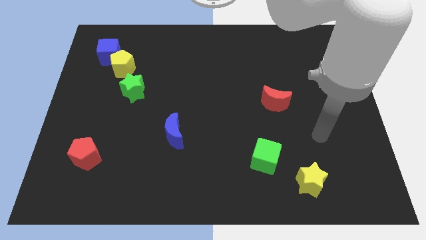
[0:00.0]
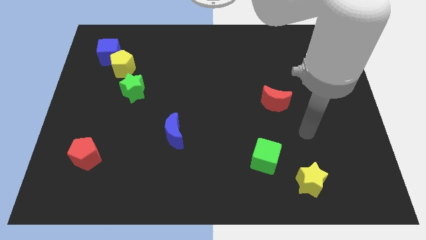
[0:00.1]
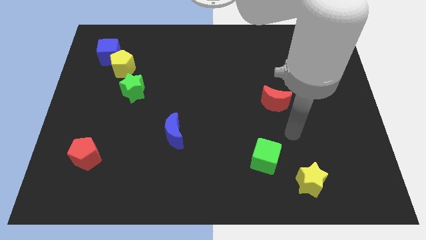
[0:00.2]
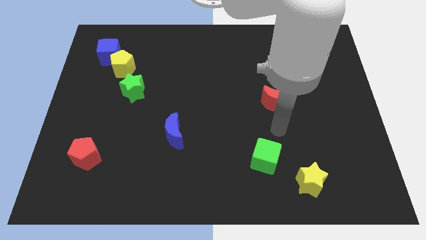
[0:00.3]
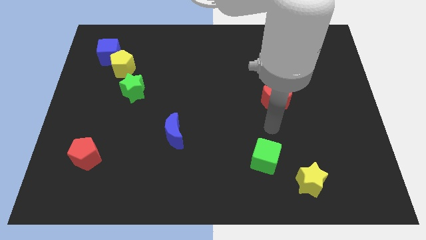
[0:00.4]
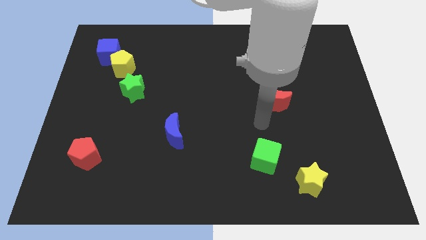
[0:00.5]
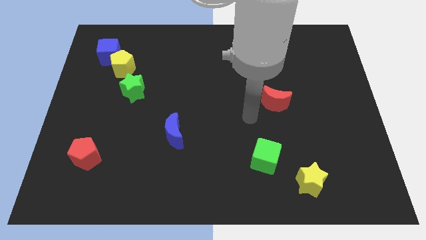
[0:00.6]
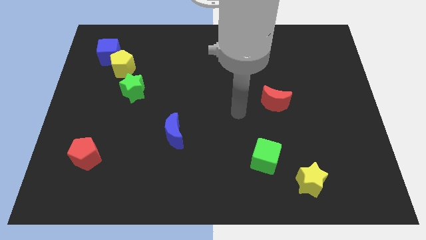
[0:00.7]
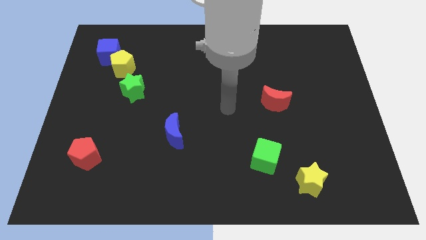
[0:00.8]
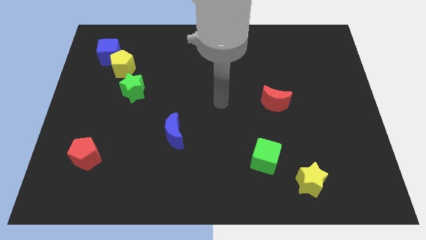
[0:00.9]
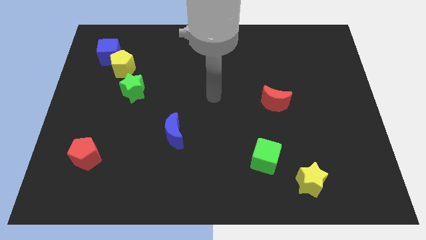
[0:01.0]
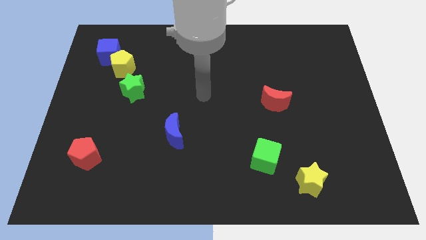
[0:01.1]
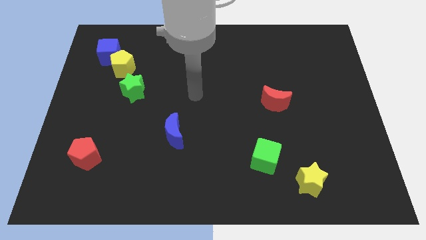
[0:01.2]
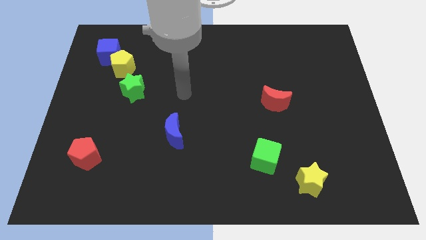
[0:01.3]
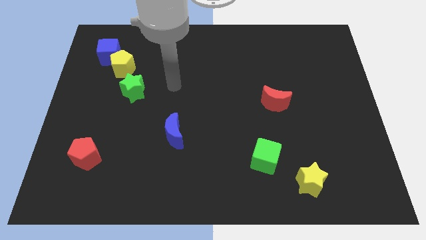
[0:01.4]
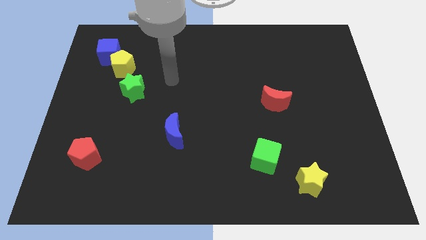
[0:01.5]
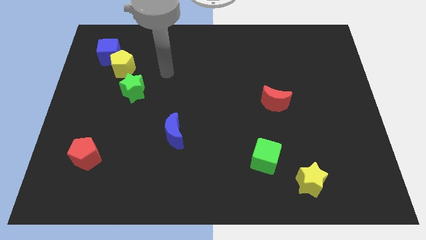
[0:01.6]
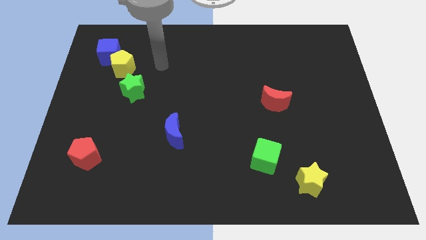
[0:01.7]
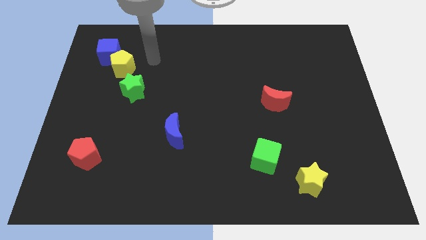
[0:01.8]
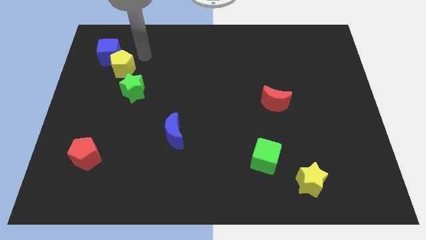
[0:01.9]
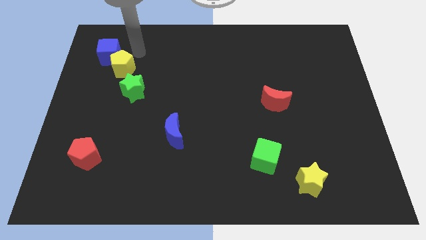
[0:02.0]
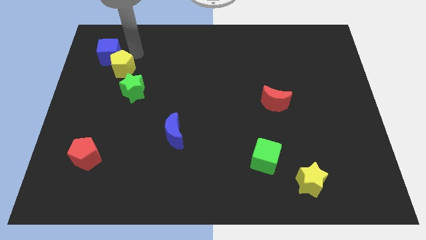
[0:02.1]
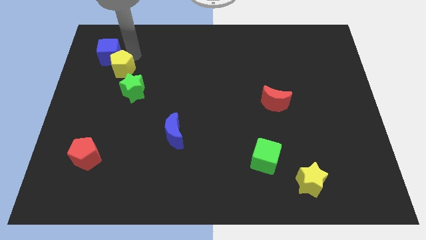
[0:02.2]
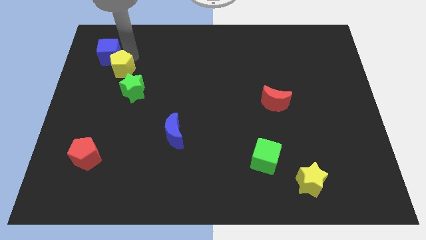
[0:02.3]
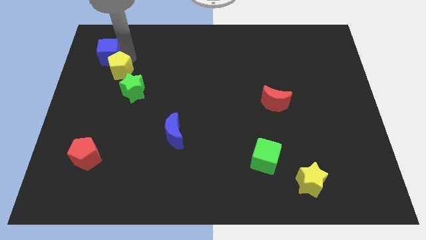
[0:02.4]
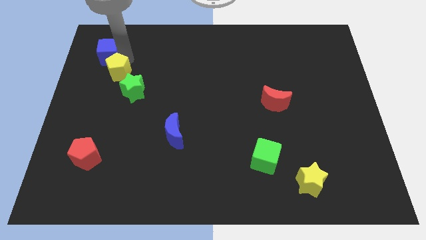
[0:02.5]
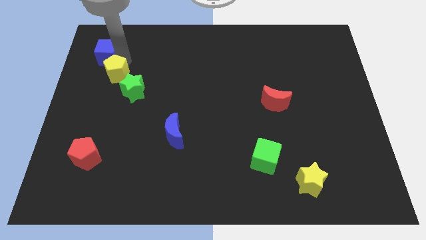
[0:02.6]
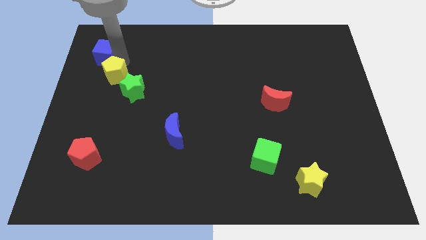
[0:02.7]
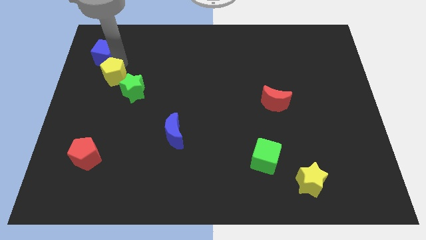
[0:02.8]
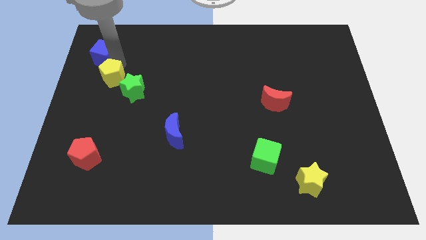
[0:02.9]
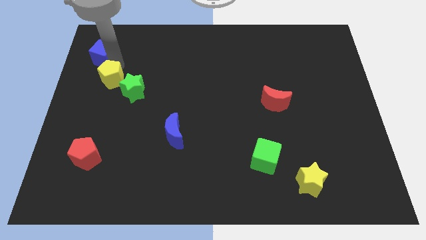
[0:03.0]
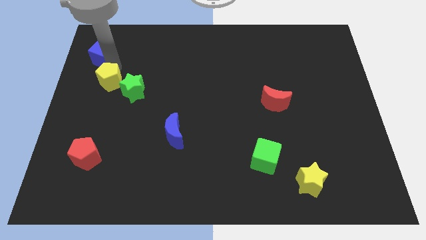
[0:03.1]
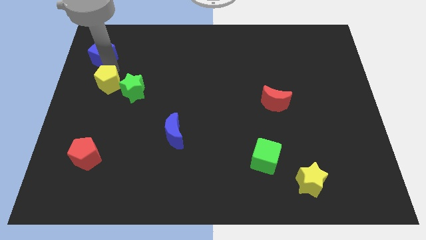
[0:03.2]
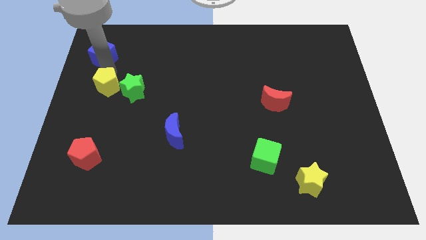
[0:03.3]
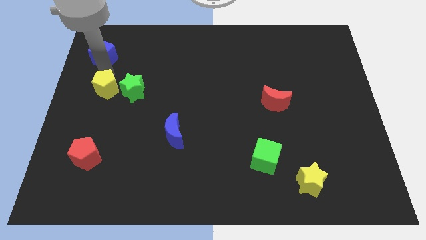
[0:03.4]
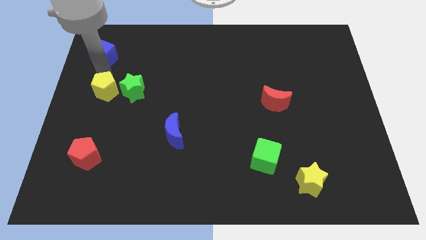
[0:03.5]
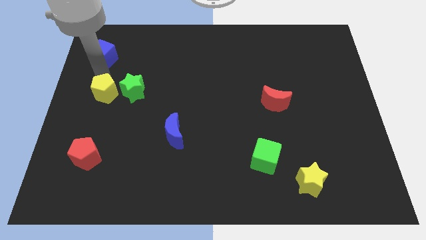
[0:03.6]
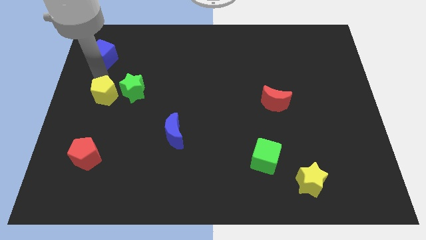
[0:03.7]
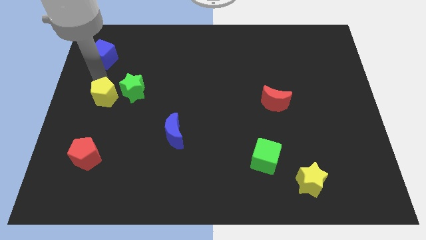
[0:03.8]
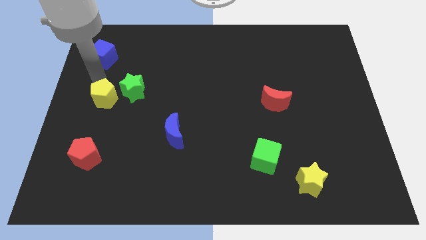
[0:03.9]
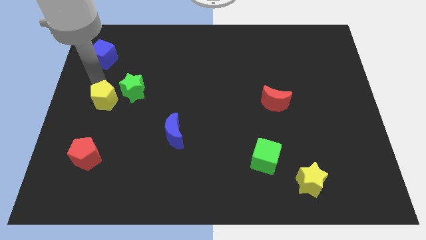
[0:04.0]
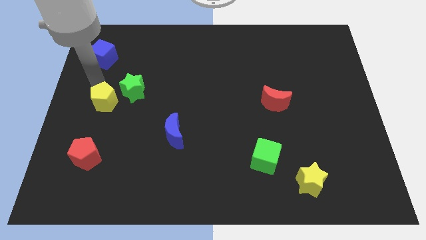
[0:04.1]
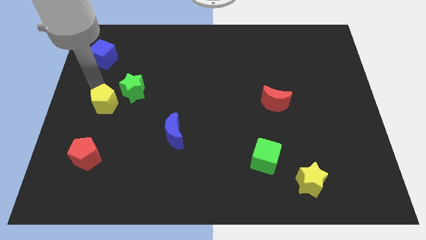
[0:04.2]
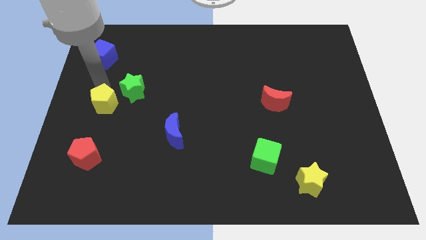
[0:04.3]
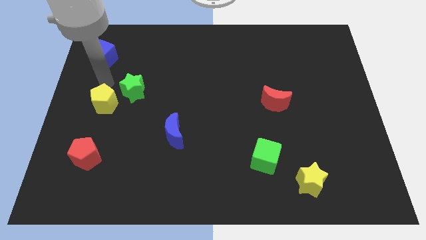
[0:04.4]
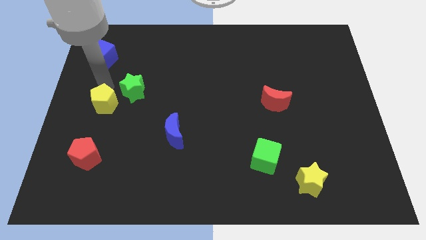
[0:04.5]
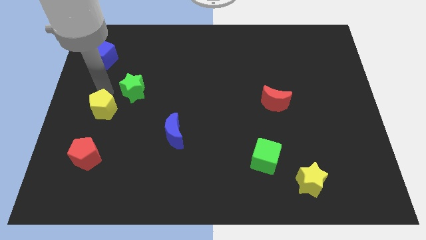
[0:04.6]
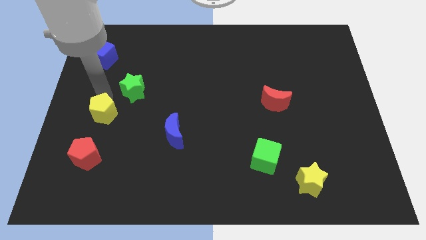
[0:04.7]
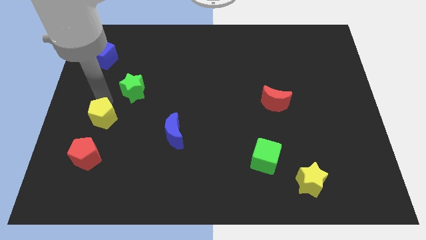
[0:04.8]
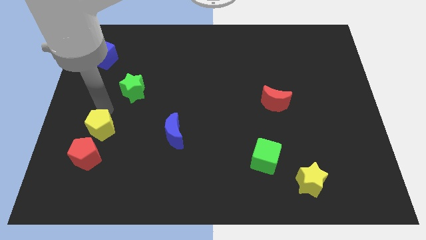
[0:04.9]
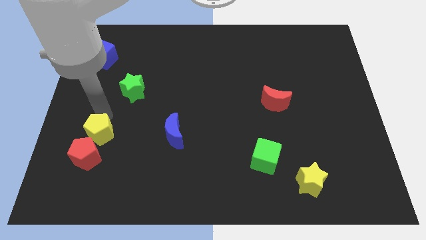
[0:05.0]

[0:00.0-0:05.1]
push the yellow pentagon close to the red pentagon

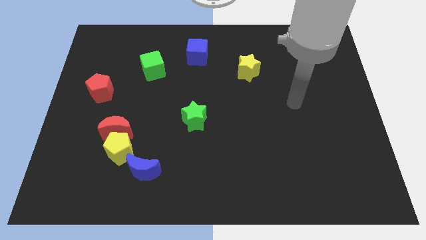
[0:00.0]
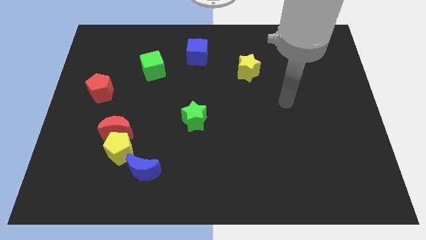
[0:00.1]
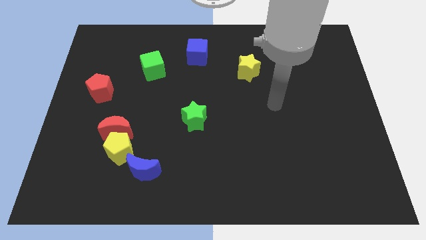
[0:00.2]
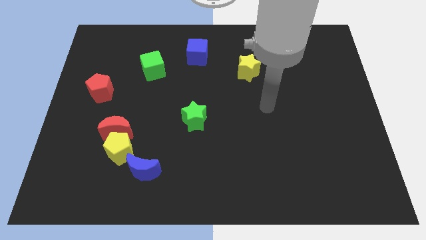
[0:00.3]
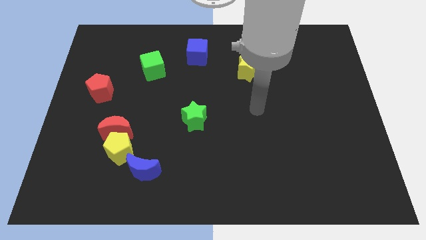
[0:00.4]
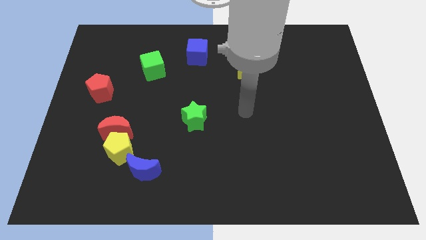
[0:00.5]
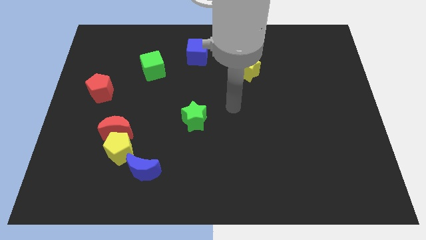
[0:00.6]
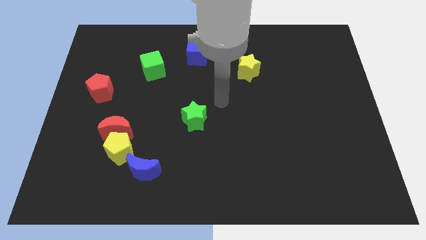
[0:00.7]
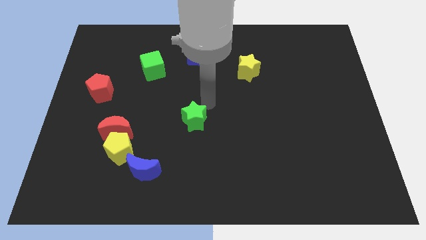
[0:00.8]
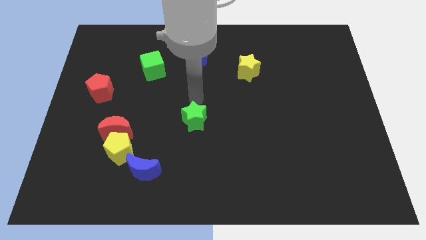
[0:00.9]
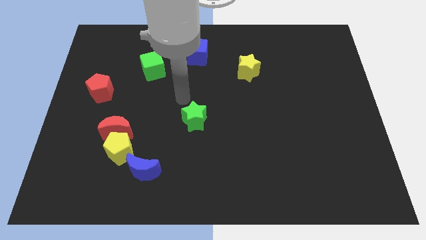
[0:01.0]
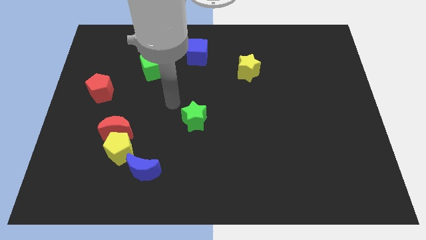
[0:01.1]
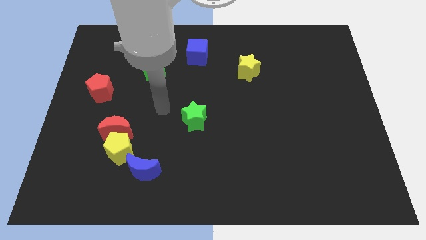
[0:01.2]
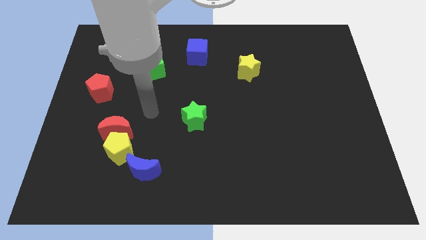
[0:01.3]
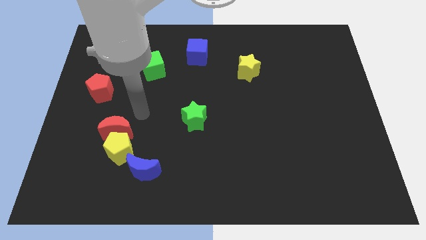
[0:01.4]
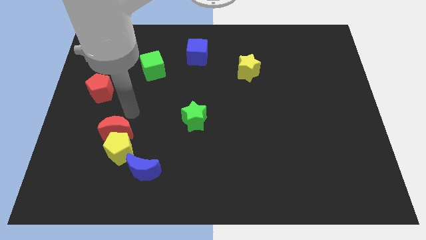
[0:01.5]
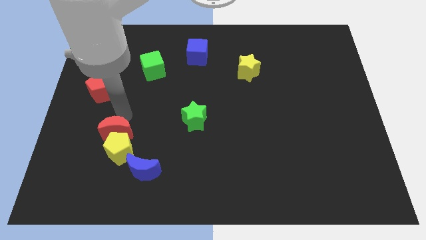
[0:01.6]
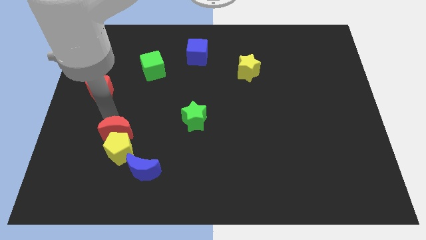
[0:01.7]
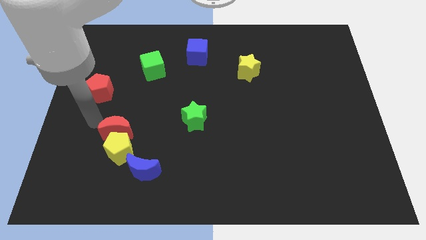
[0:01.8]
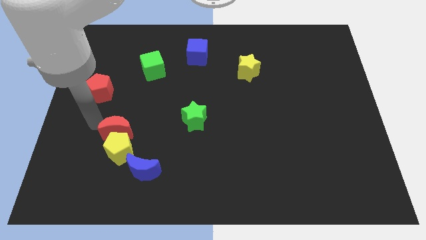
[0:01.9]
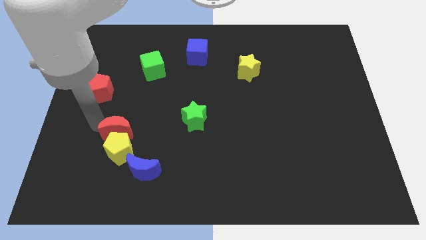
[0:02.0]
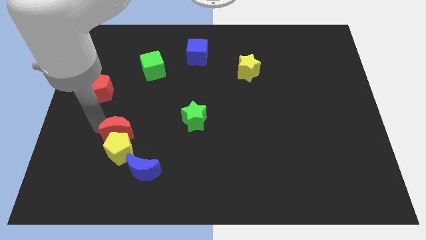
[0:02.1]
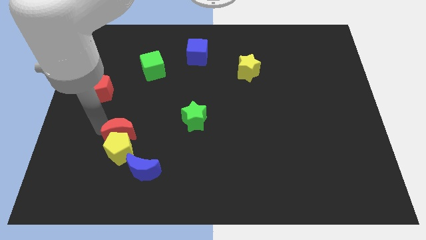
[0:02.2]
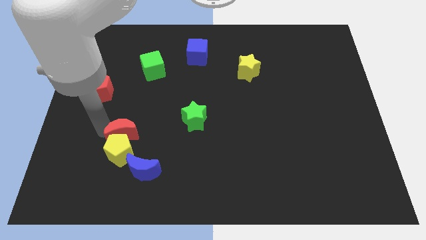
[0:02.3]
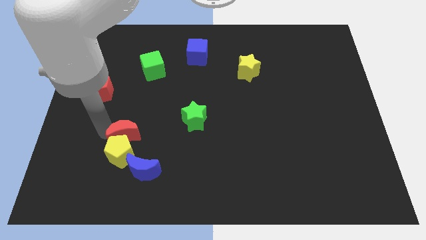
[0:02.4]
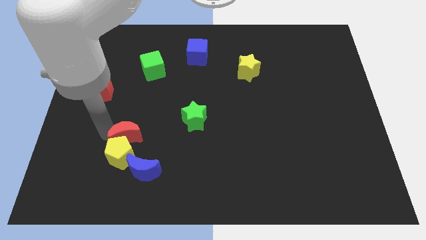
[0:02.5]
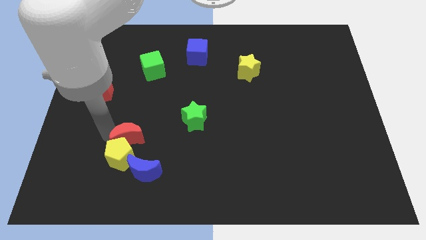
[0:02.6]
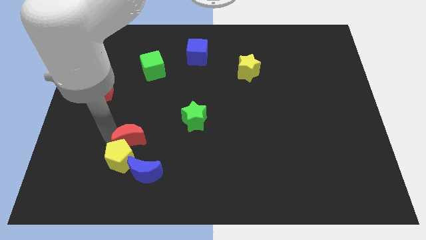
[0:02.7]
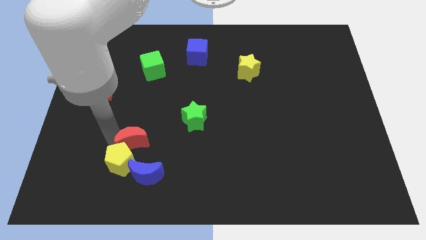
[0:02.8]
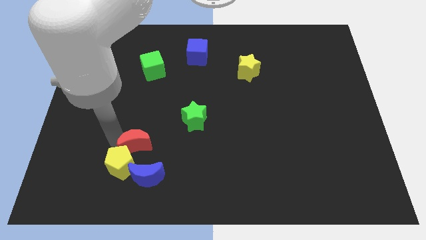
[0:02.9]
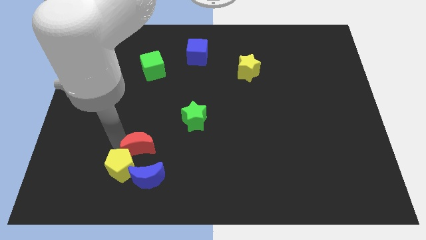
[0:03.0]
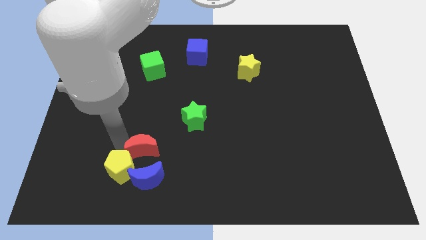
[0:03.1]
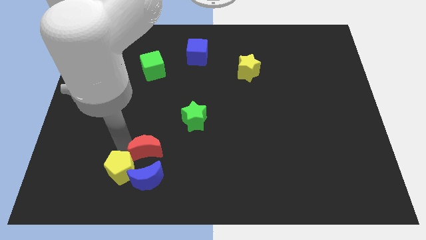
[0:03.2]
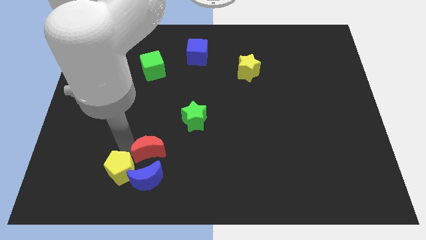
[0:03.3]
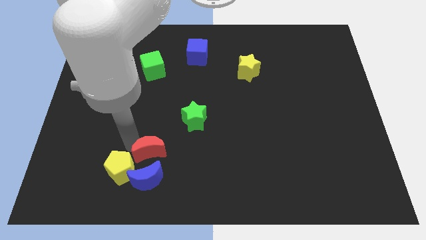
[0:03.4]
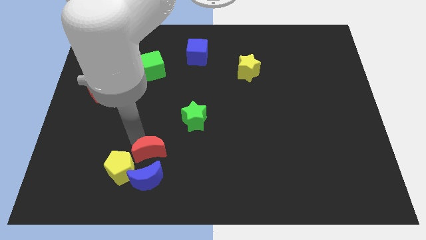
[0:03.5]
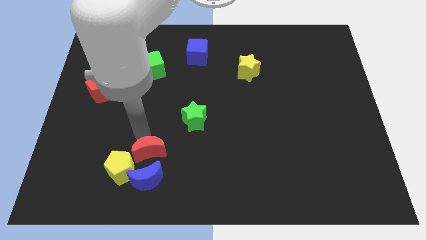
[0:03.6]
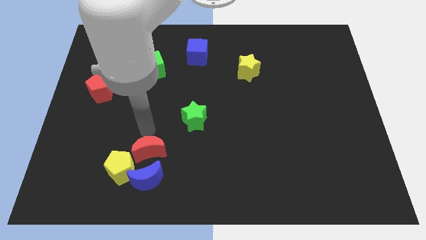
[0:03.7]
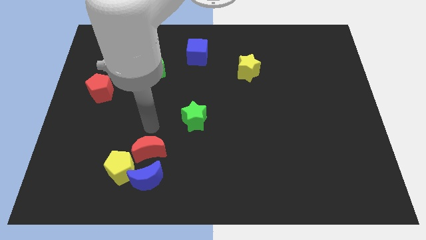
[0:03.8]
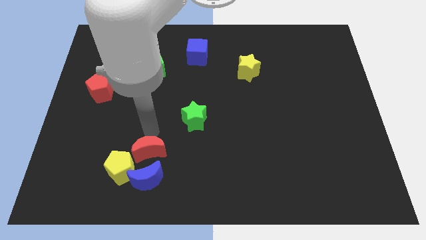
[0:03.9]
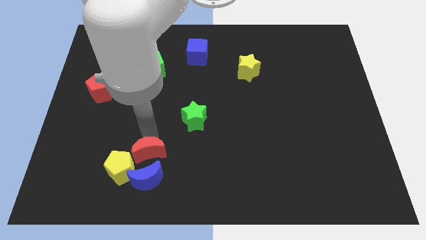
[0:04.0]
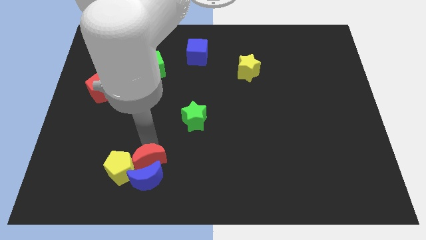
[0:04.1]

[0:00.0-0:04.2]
put the red moon close to the blue moon
